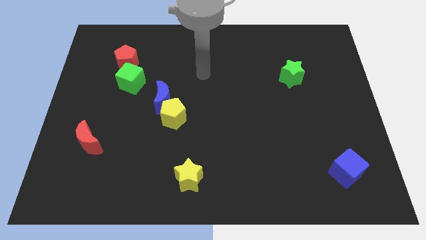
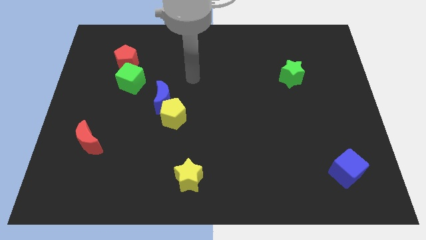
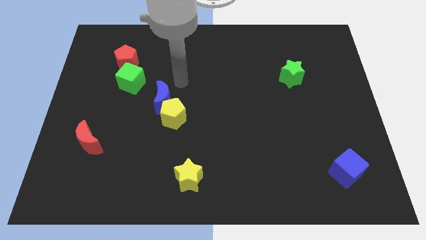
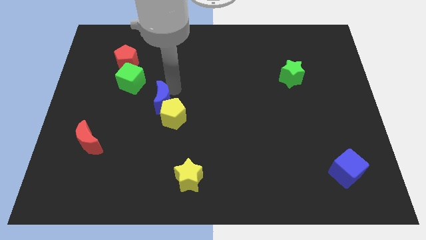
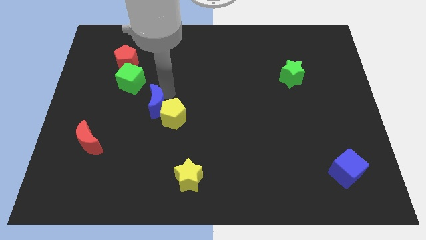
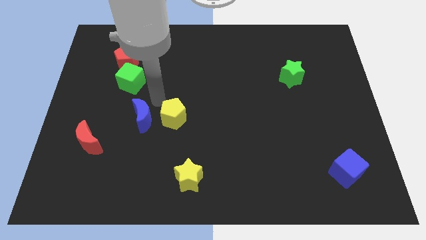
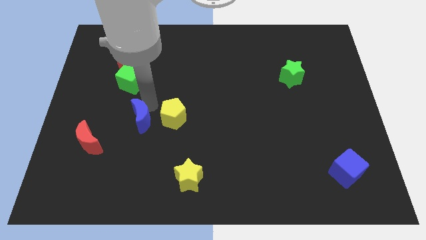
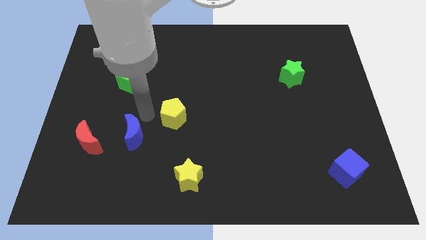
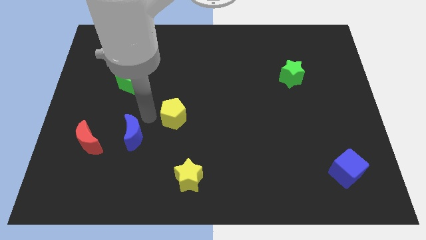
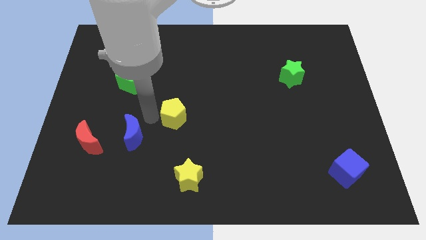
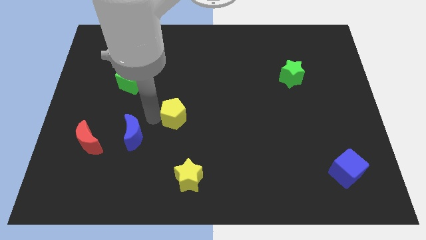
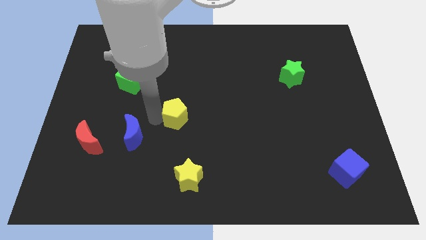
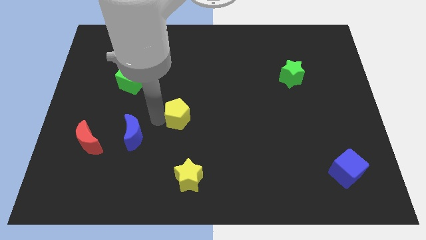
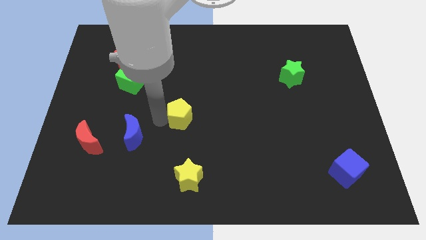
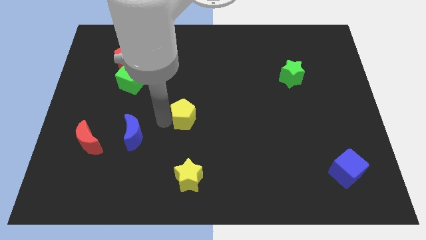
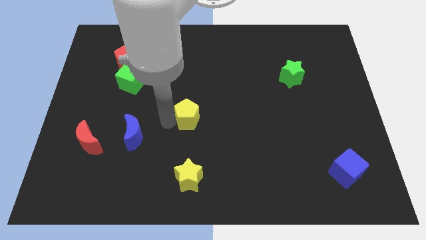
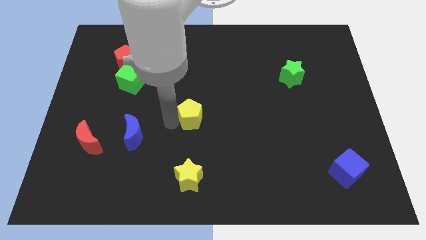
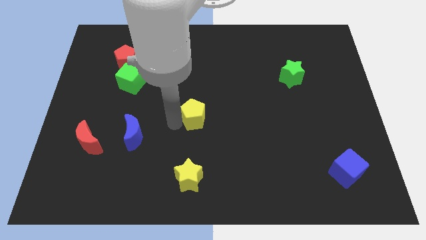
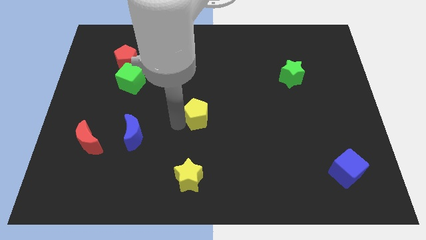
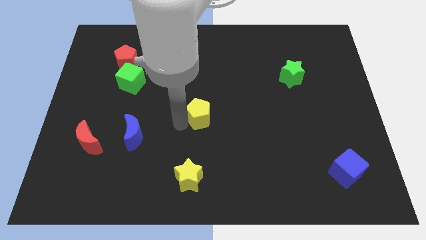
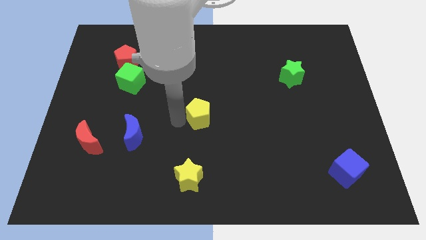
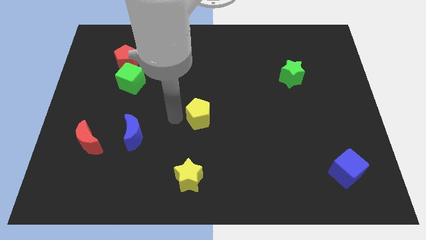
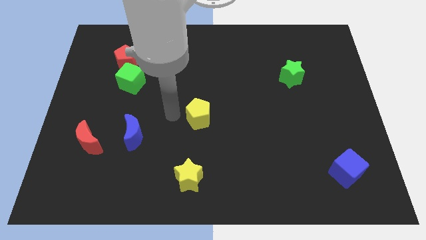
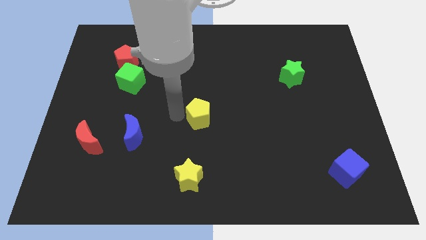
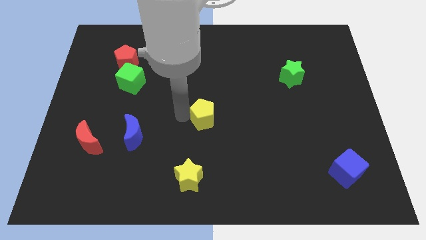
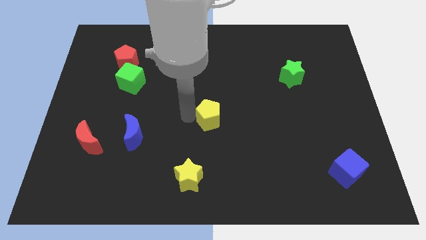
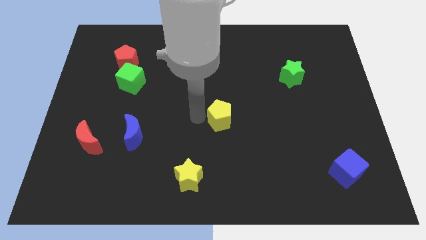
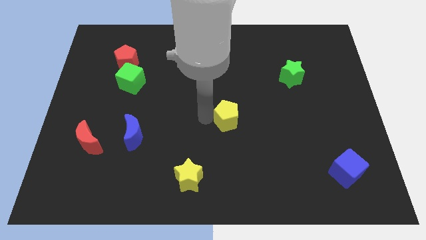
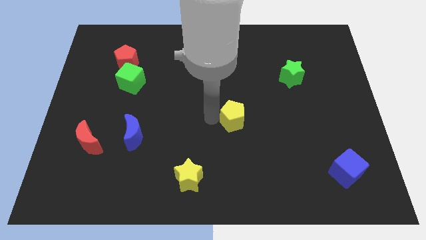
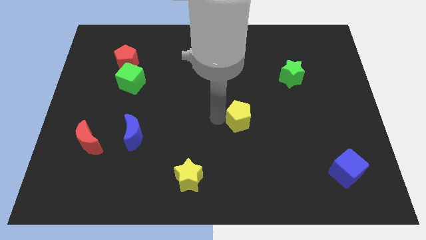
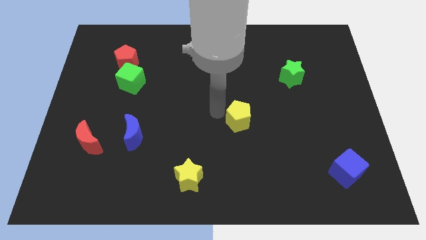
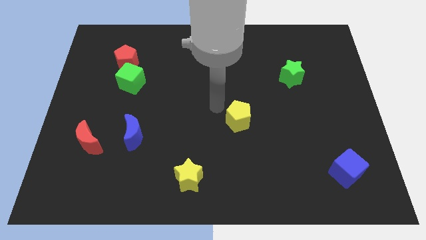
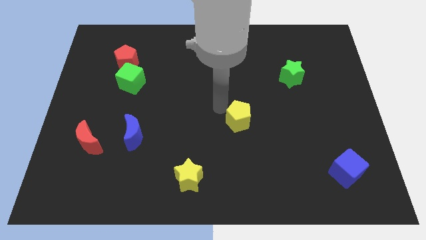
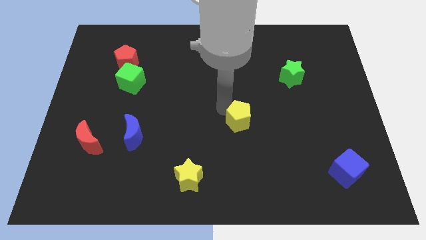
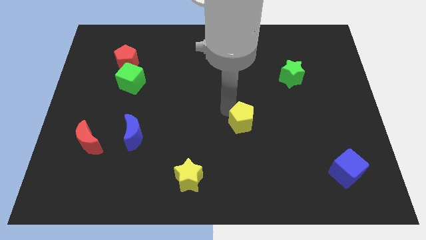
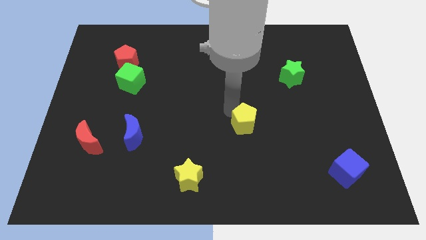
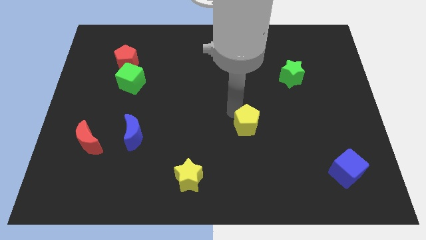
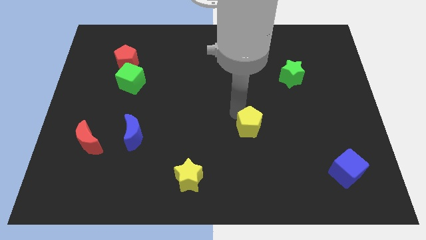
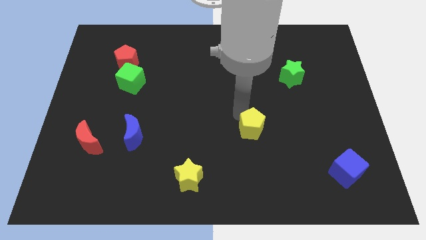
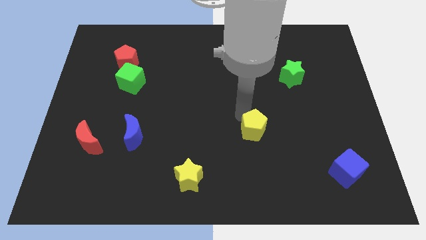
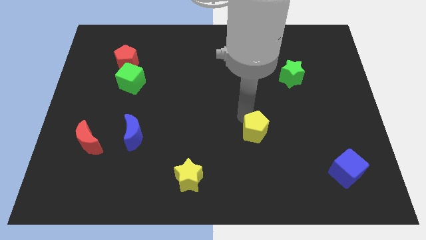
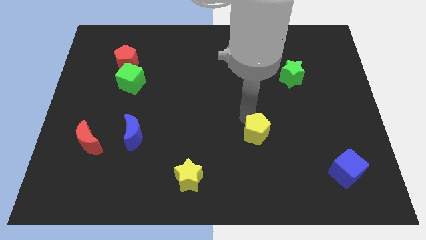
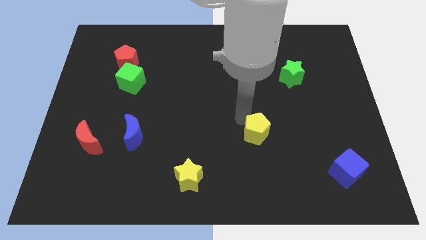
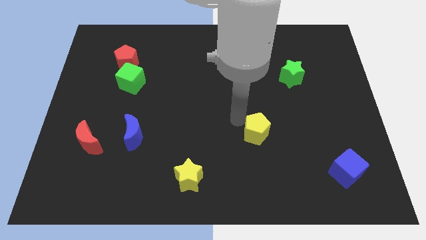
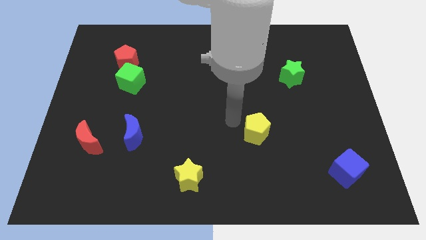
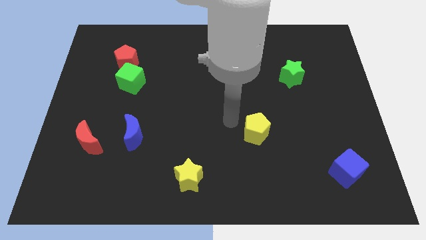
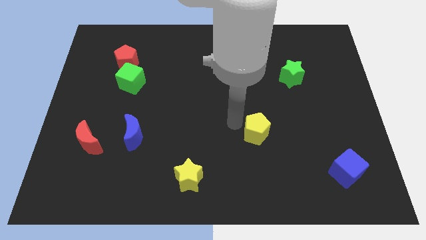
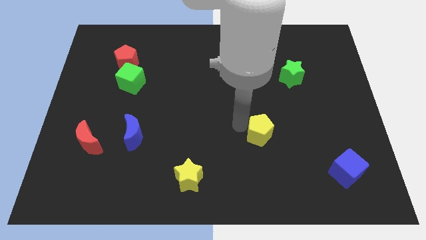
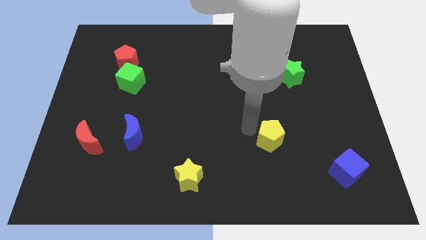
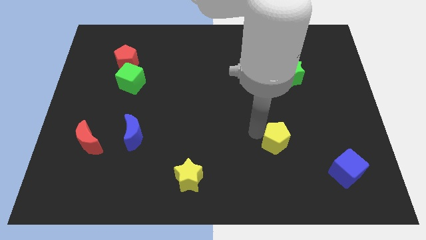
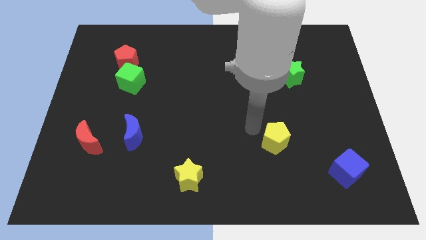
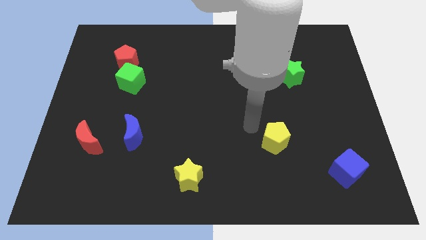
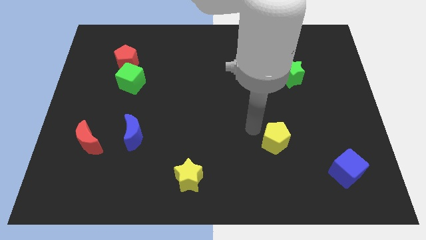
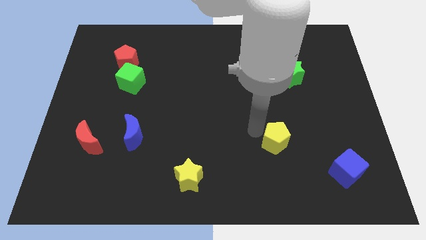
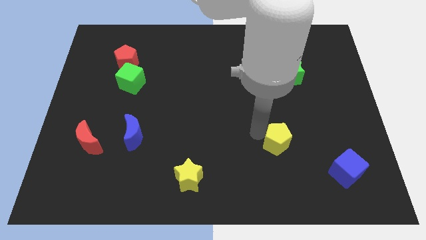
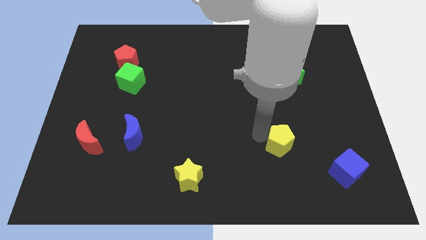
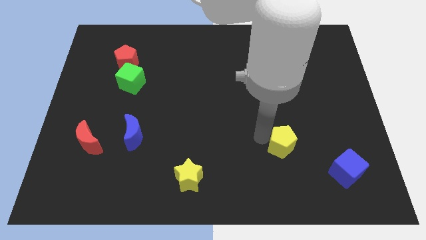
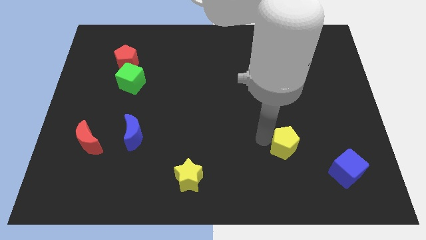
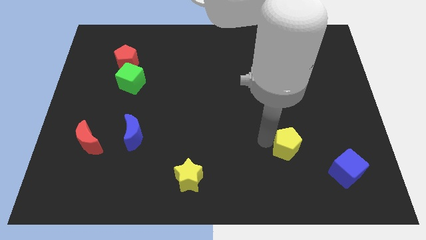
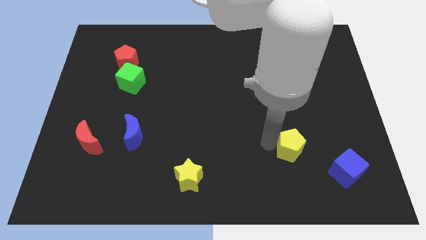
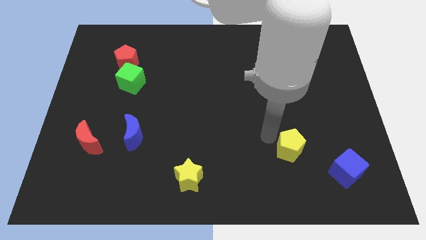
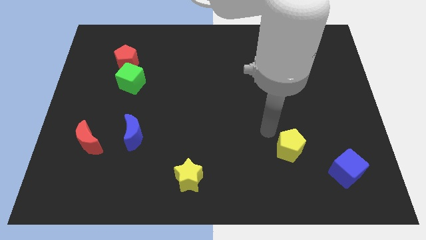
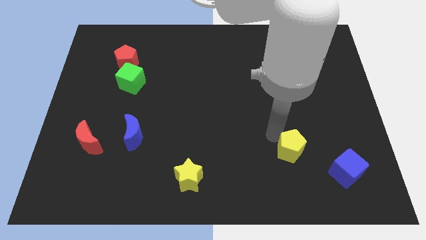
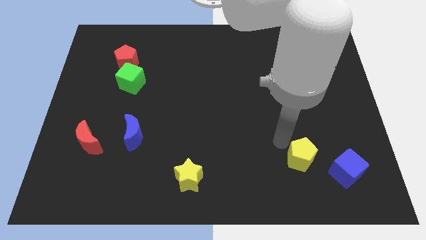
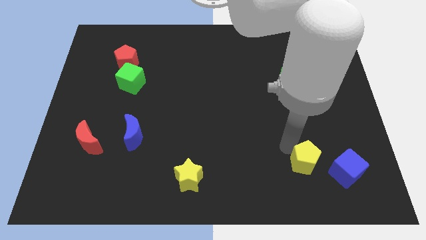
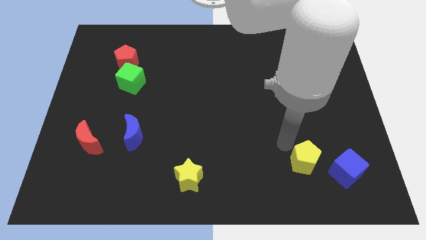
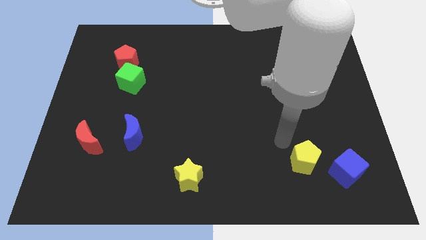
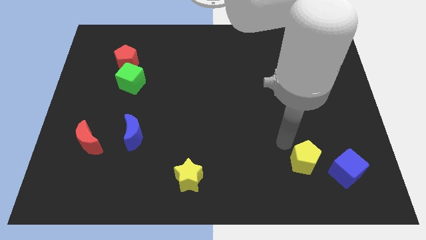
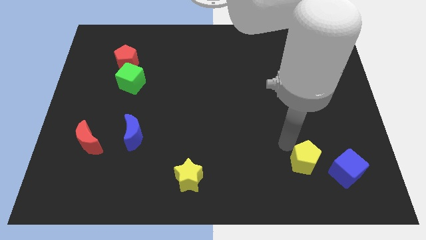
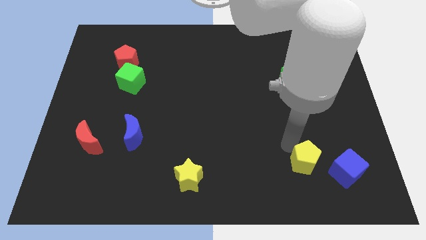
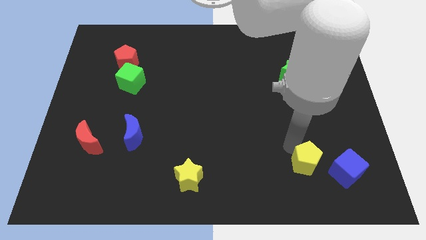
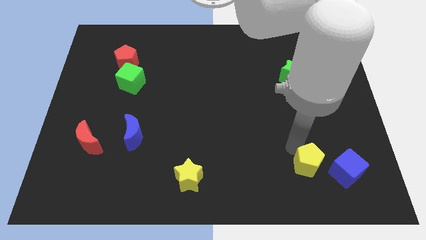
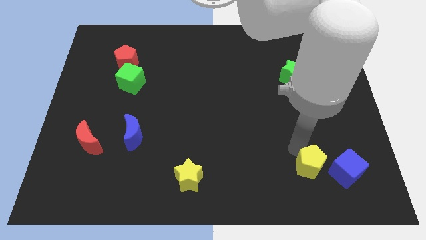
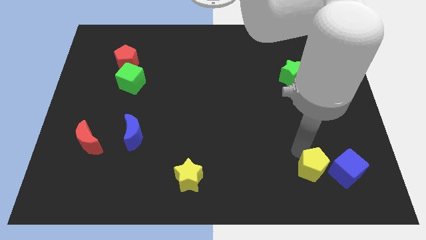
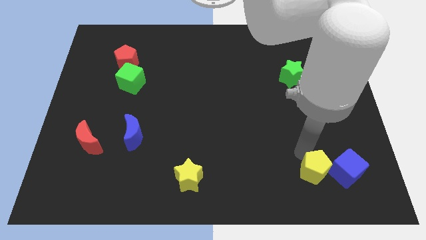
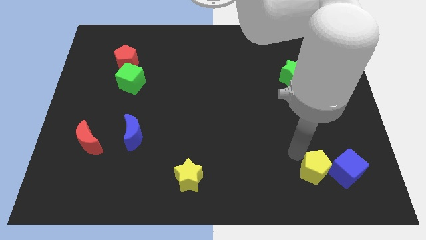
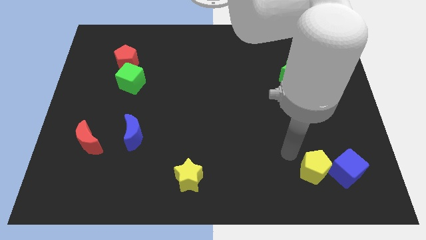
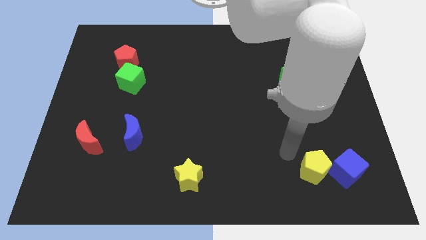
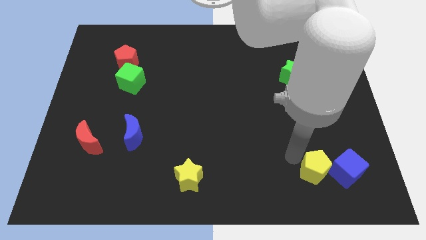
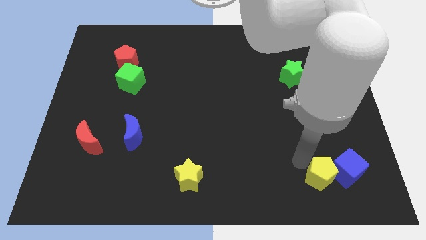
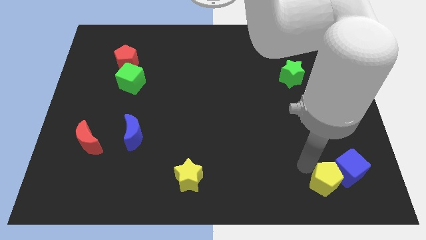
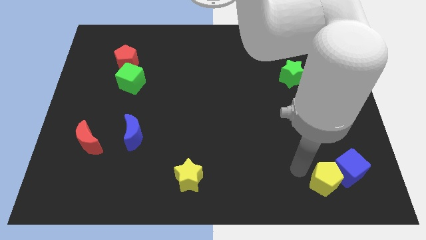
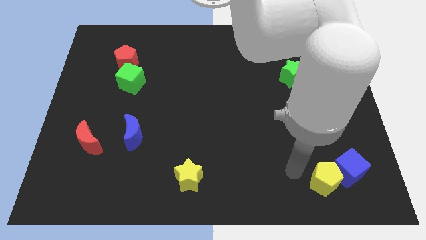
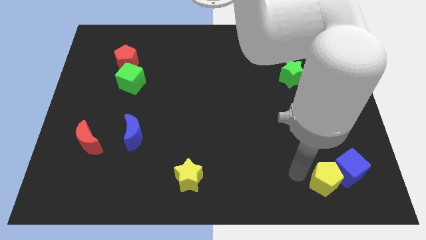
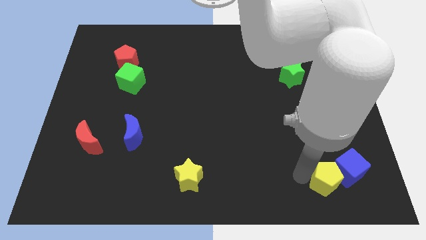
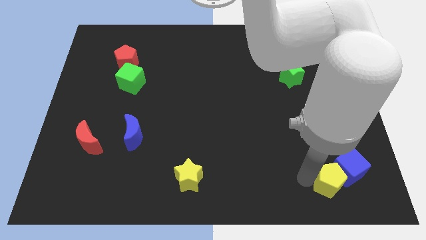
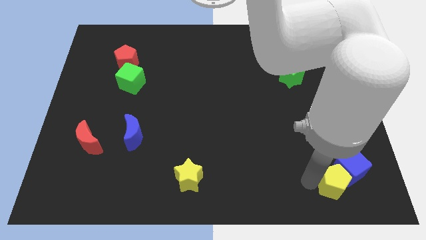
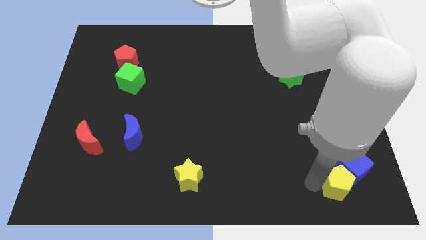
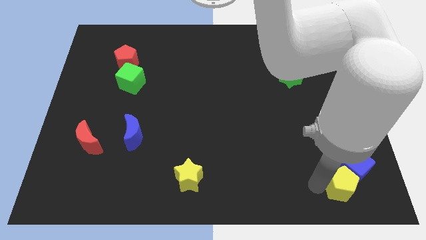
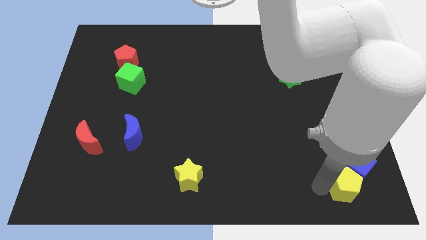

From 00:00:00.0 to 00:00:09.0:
put the yellow pentagon to the bottom right corner
